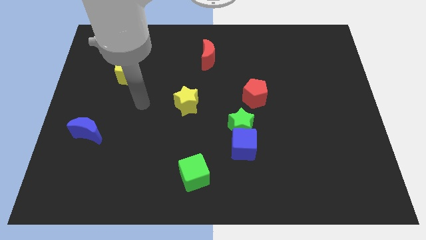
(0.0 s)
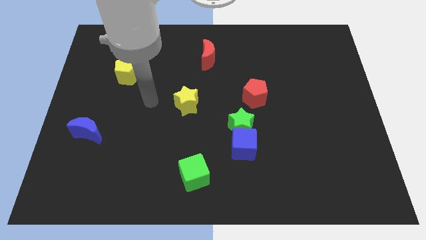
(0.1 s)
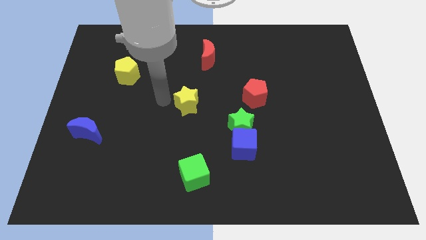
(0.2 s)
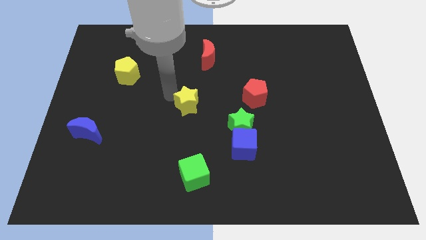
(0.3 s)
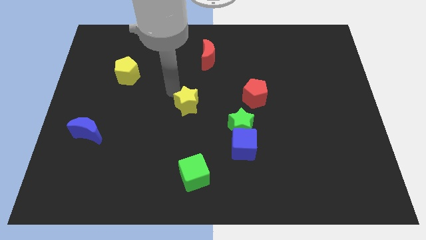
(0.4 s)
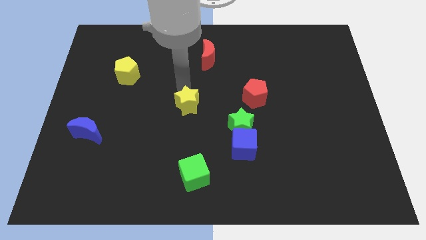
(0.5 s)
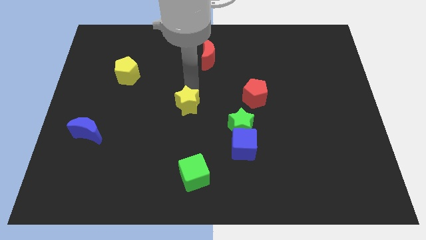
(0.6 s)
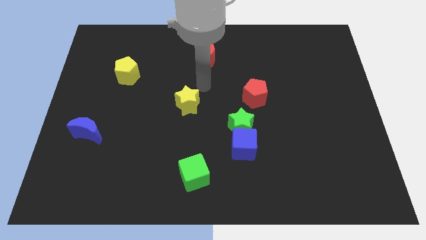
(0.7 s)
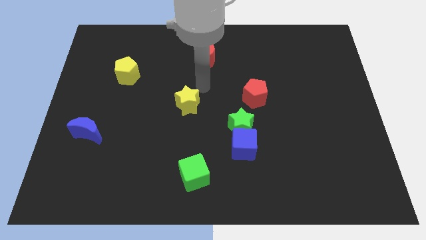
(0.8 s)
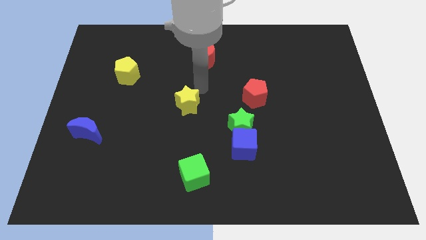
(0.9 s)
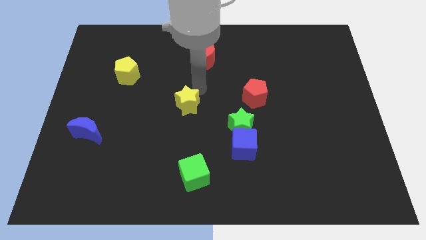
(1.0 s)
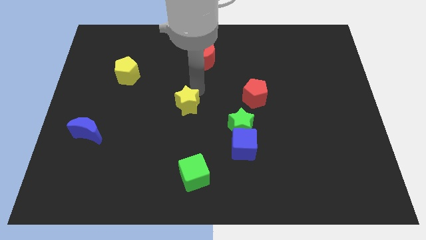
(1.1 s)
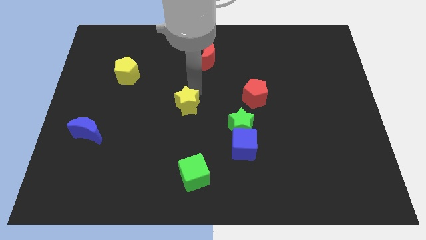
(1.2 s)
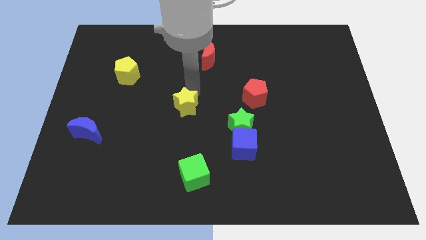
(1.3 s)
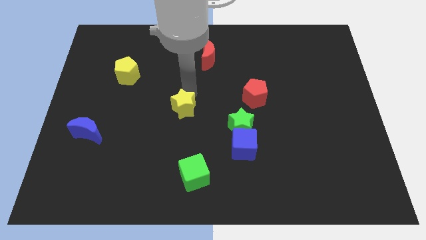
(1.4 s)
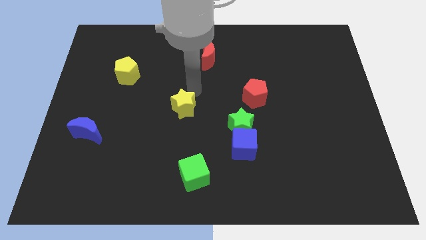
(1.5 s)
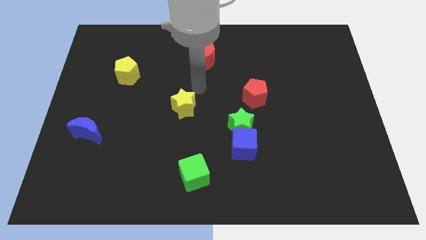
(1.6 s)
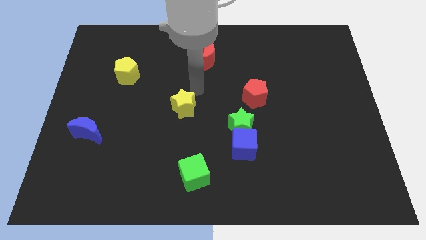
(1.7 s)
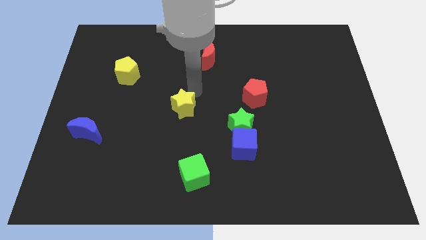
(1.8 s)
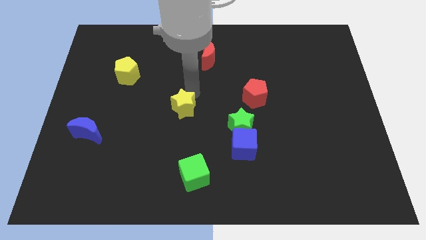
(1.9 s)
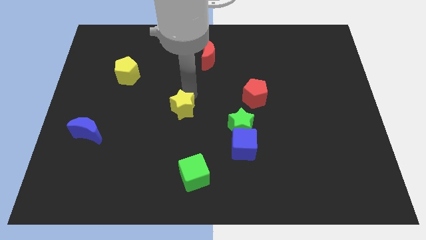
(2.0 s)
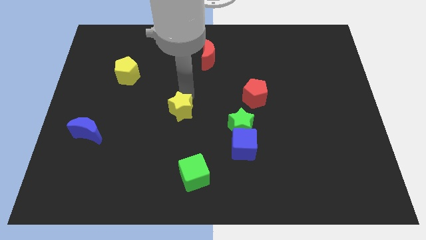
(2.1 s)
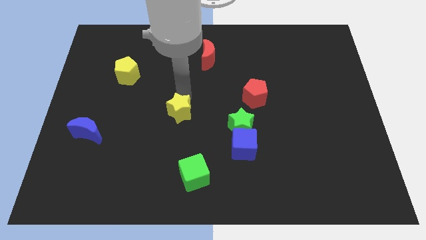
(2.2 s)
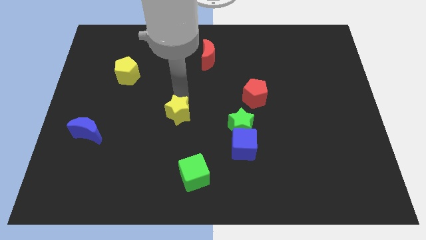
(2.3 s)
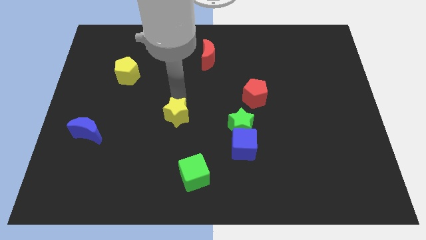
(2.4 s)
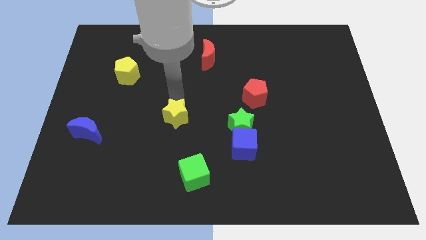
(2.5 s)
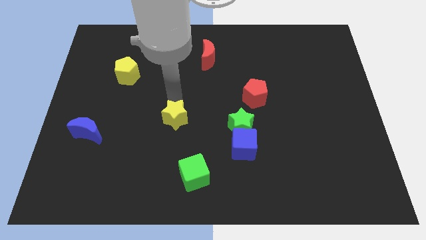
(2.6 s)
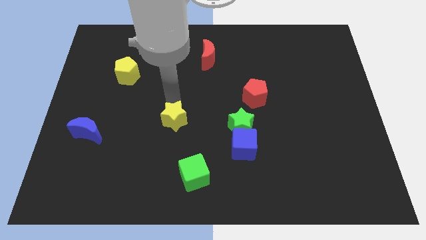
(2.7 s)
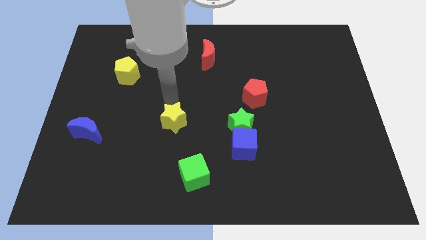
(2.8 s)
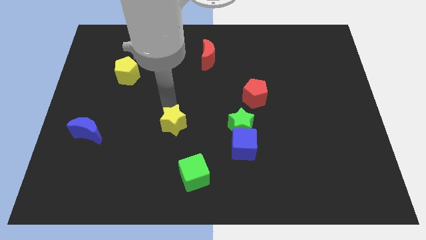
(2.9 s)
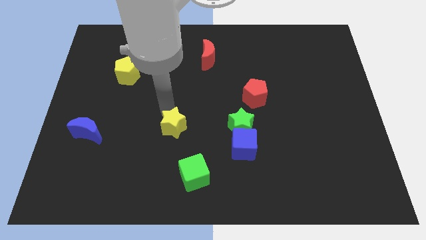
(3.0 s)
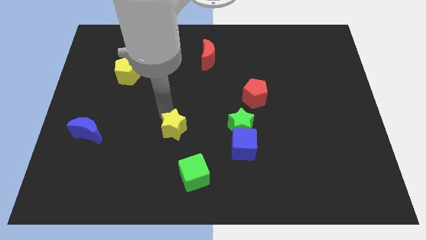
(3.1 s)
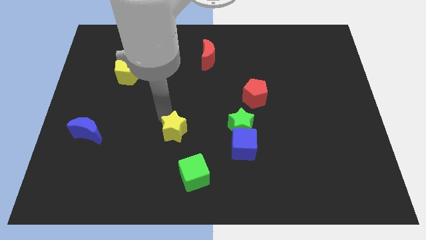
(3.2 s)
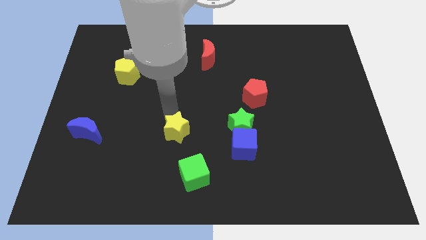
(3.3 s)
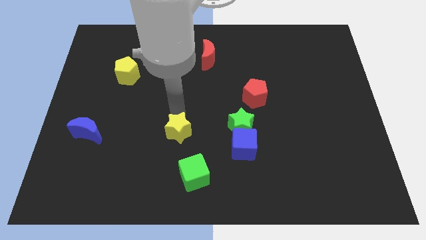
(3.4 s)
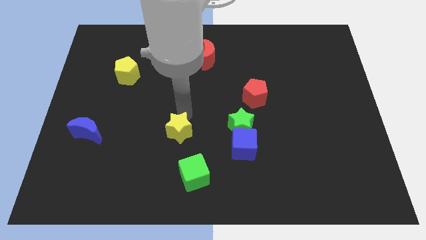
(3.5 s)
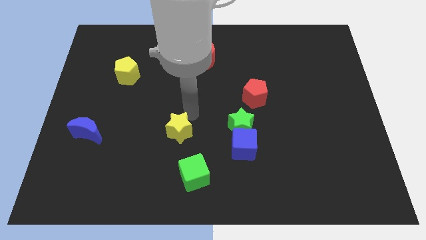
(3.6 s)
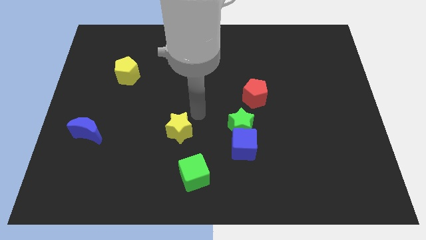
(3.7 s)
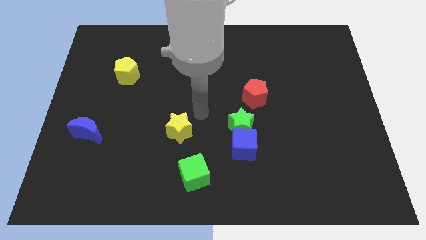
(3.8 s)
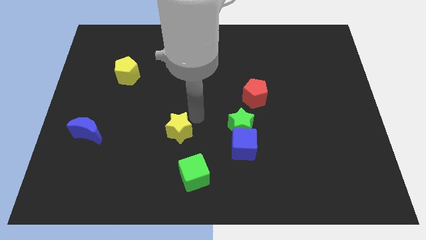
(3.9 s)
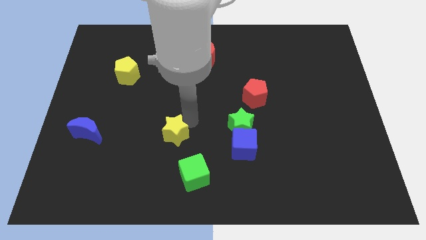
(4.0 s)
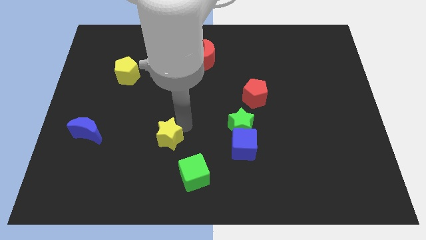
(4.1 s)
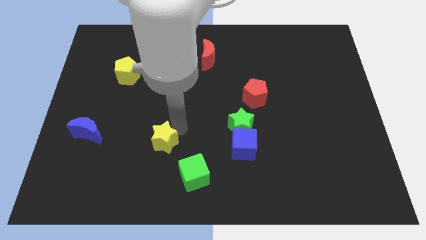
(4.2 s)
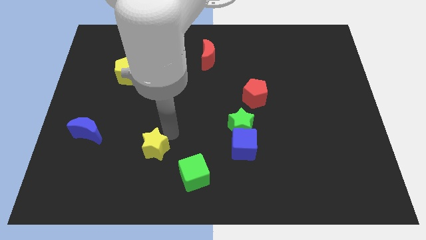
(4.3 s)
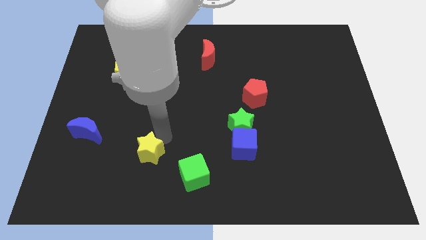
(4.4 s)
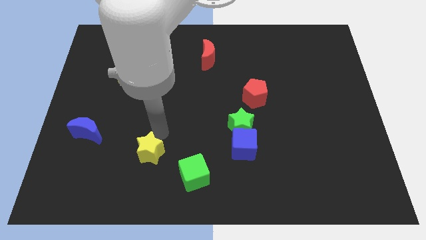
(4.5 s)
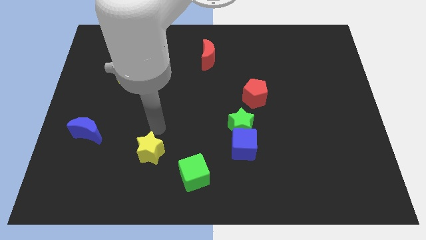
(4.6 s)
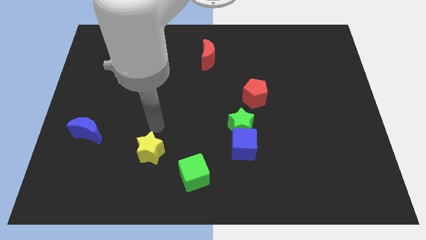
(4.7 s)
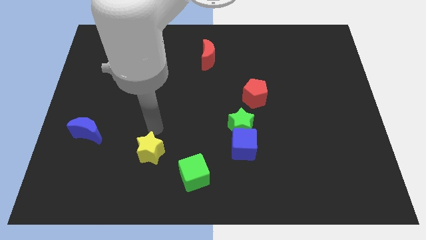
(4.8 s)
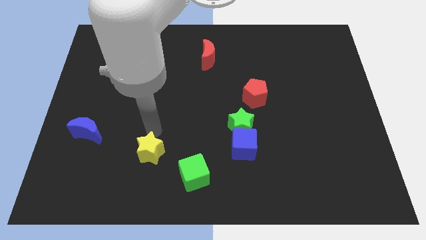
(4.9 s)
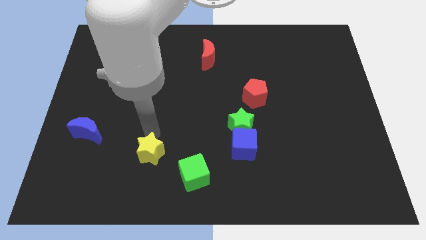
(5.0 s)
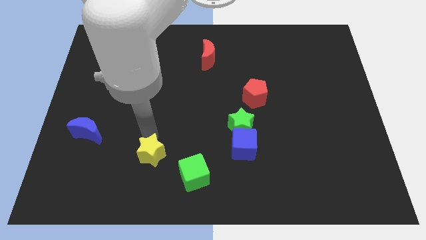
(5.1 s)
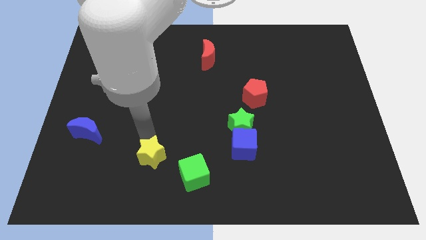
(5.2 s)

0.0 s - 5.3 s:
slide the yellow star to the left side of the green cube

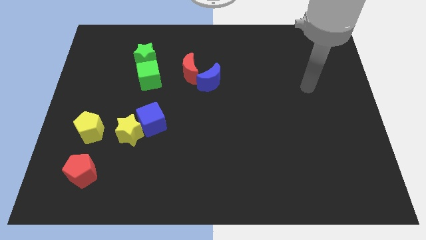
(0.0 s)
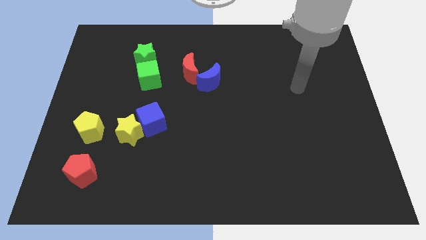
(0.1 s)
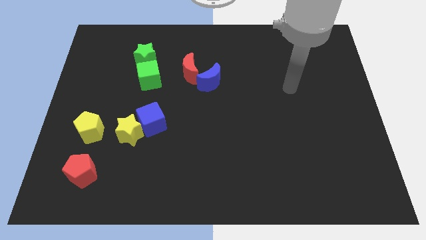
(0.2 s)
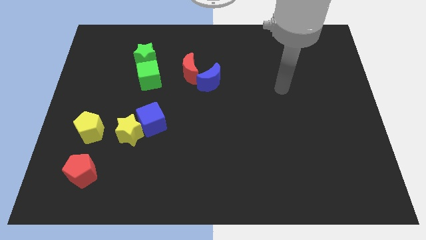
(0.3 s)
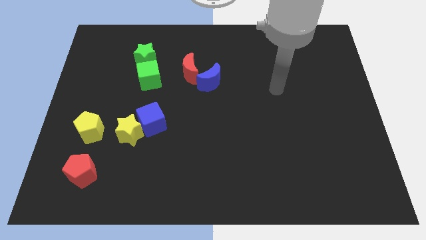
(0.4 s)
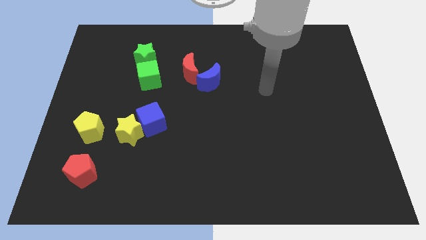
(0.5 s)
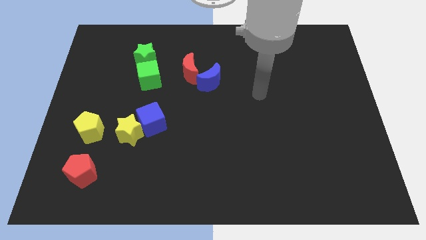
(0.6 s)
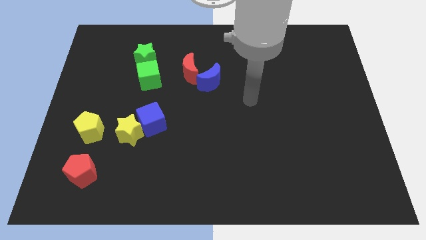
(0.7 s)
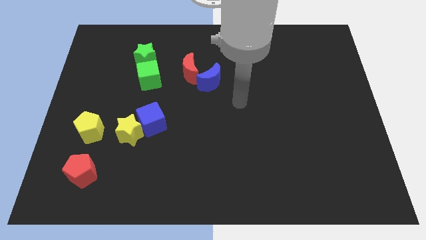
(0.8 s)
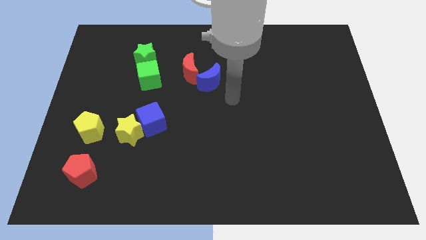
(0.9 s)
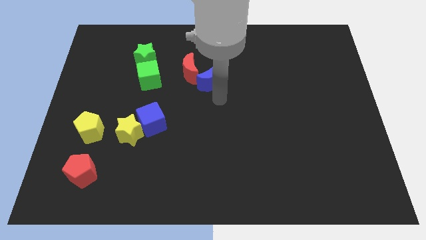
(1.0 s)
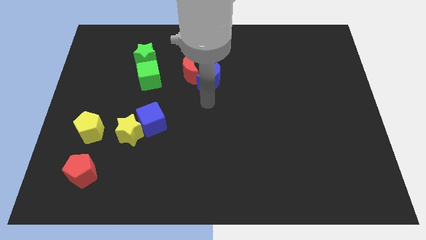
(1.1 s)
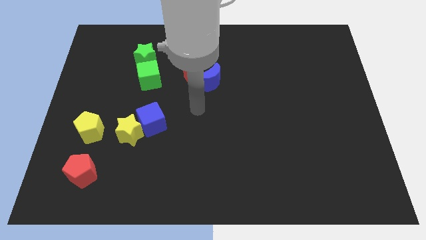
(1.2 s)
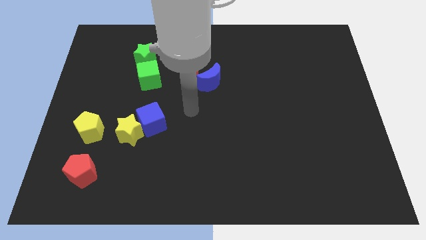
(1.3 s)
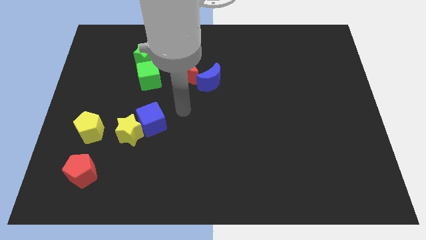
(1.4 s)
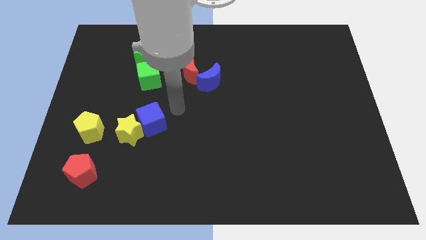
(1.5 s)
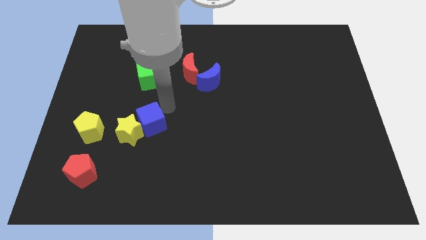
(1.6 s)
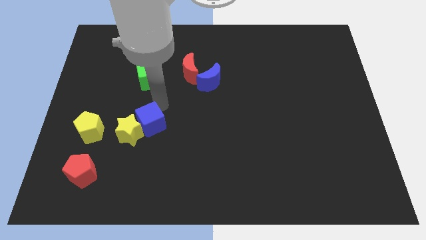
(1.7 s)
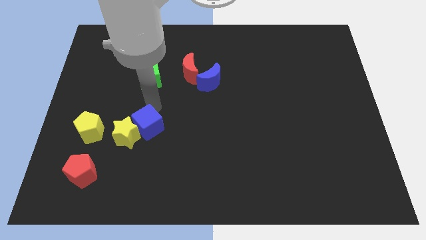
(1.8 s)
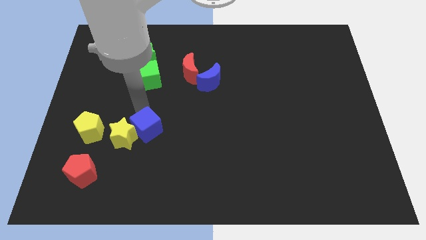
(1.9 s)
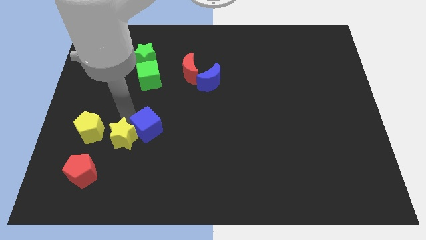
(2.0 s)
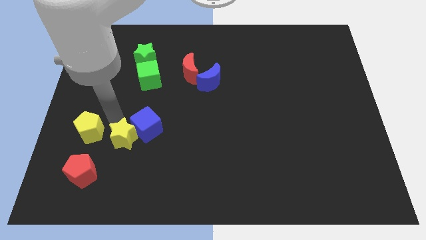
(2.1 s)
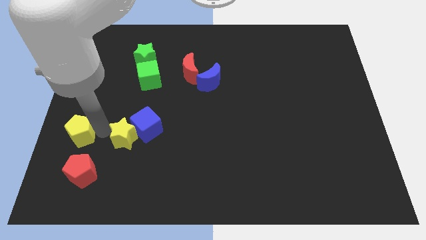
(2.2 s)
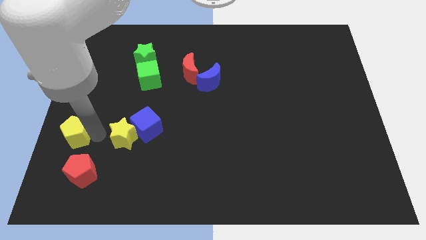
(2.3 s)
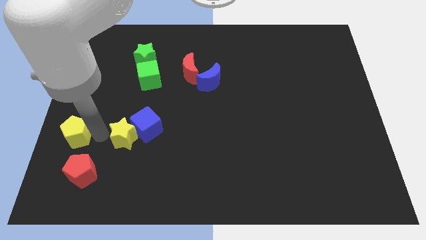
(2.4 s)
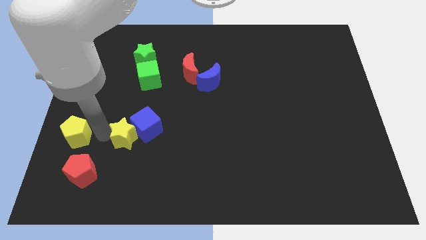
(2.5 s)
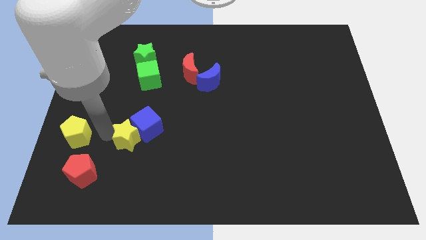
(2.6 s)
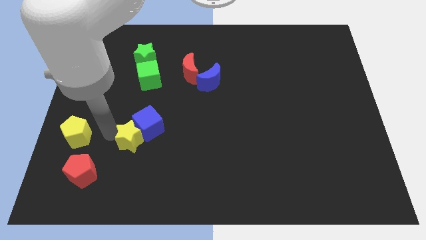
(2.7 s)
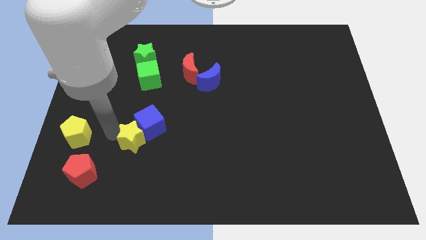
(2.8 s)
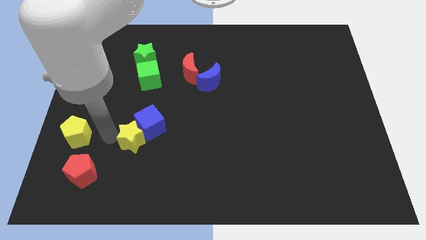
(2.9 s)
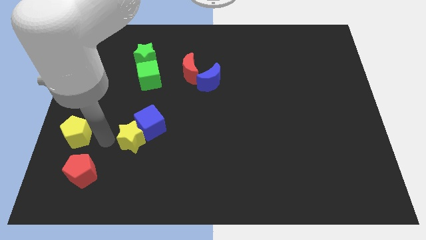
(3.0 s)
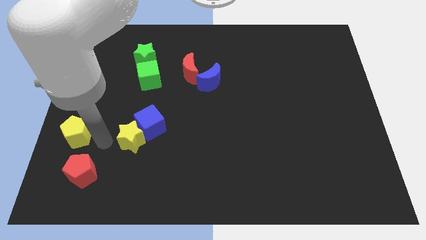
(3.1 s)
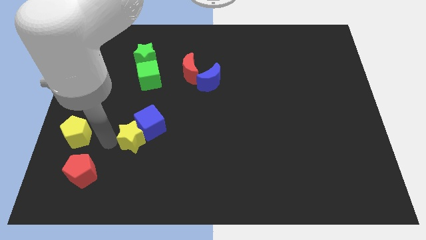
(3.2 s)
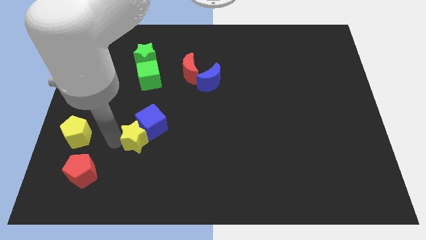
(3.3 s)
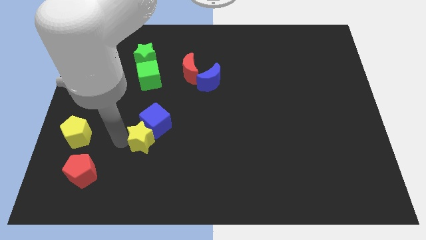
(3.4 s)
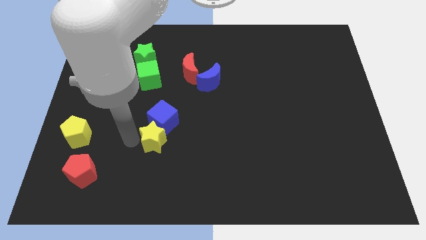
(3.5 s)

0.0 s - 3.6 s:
put the yellow star to the bottom right side of the blue cube
